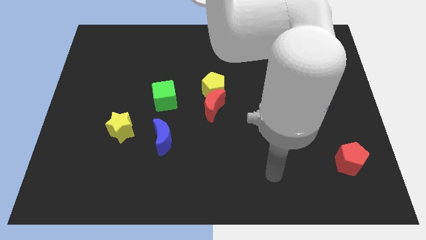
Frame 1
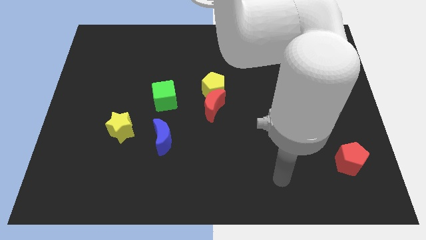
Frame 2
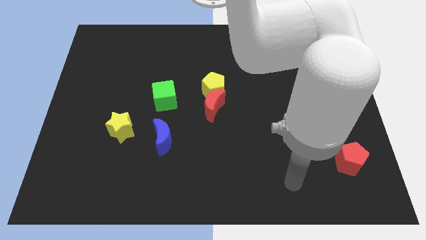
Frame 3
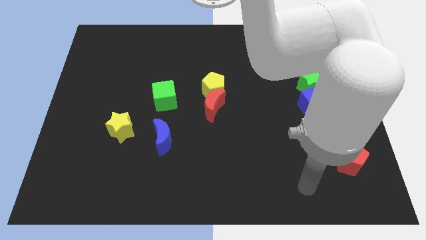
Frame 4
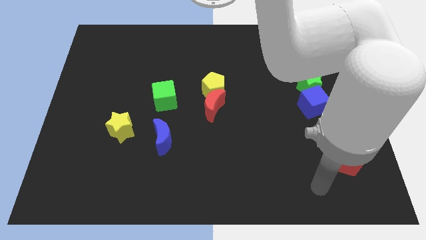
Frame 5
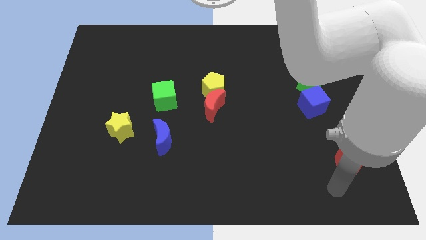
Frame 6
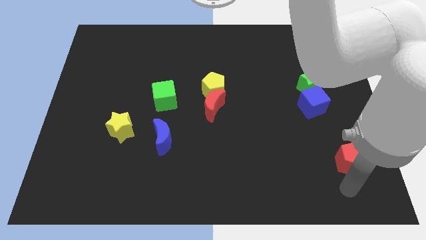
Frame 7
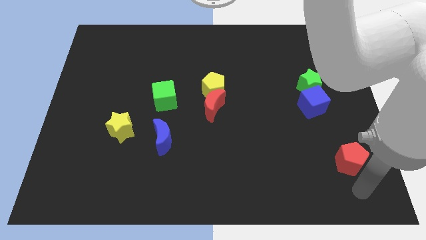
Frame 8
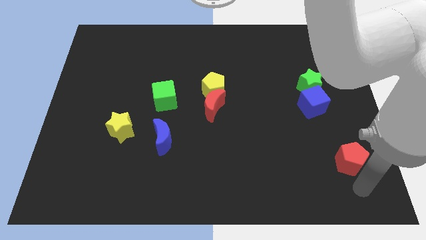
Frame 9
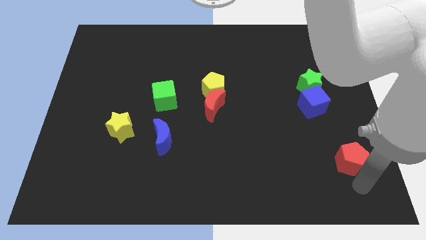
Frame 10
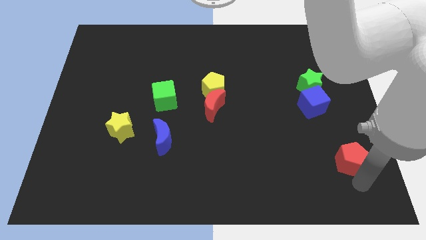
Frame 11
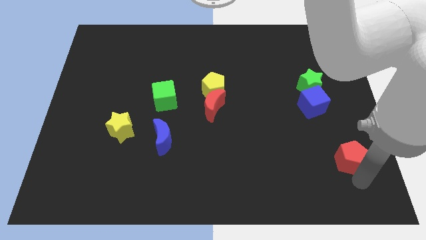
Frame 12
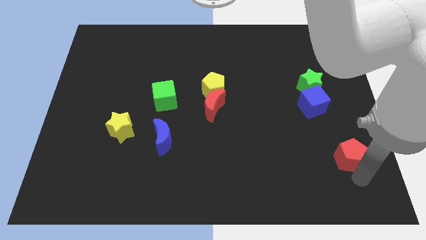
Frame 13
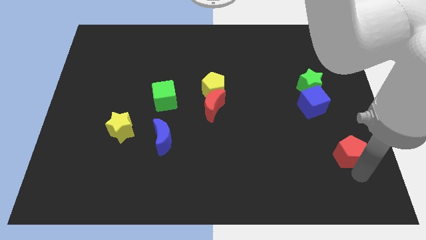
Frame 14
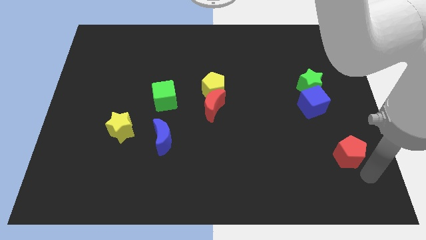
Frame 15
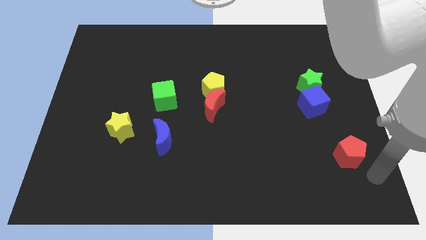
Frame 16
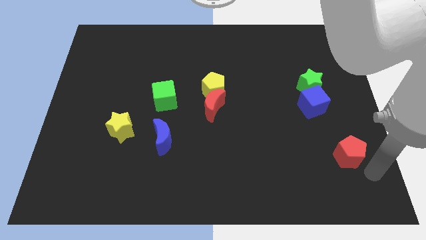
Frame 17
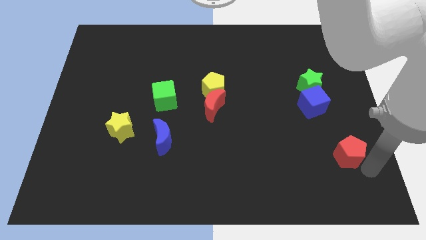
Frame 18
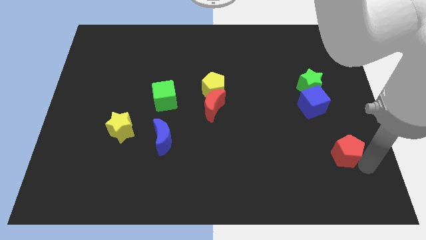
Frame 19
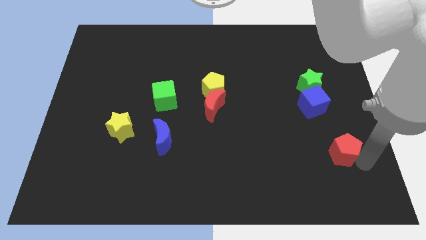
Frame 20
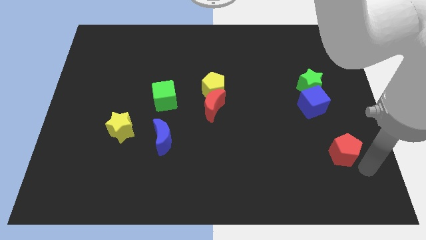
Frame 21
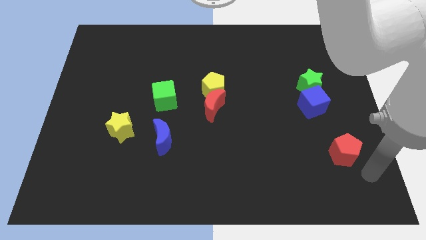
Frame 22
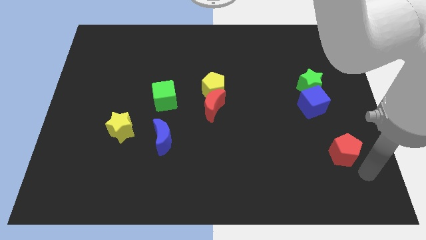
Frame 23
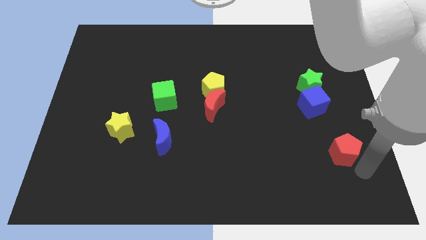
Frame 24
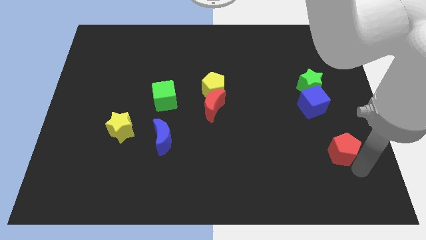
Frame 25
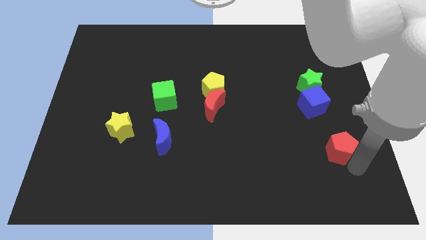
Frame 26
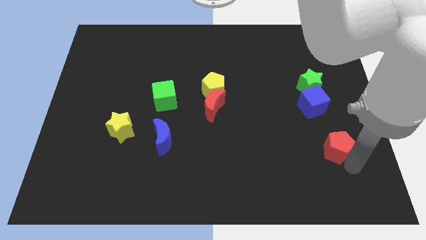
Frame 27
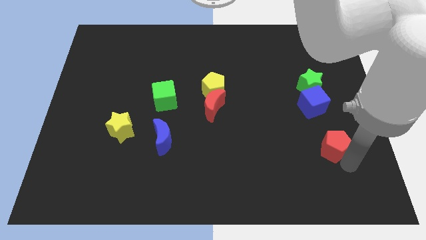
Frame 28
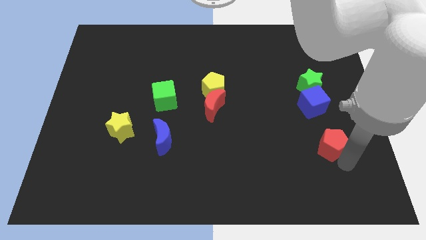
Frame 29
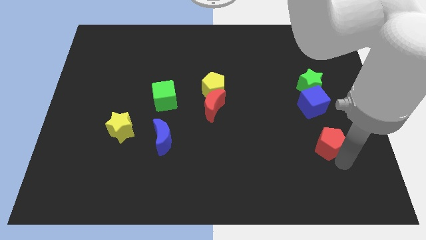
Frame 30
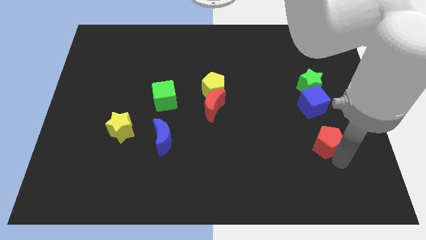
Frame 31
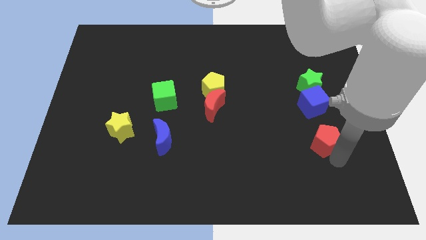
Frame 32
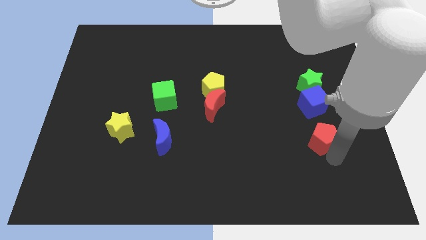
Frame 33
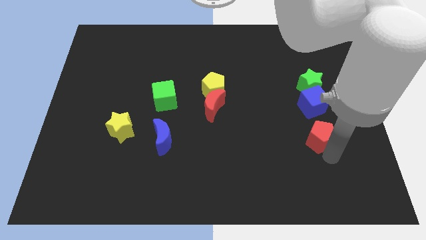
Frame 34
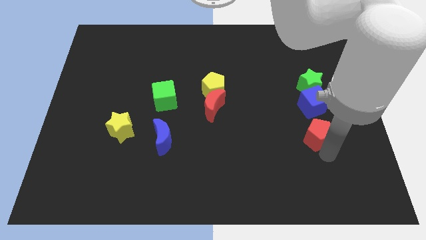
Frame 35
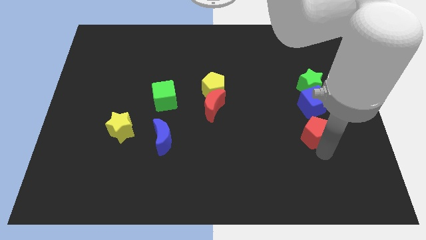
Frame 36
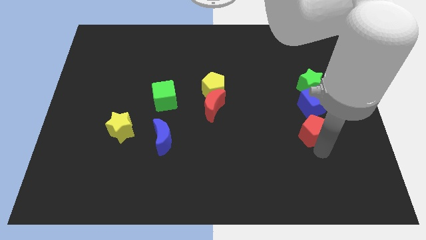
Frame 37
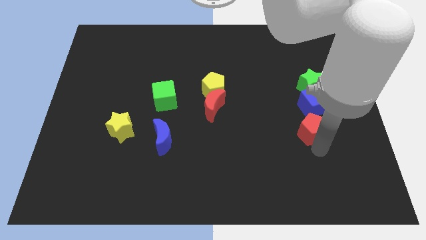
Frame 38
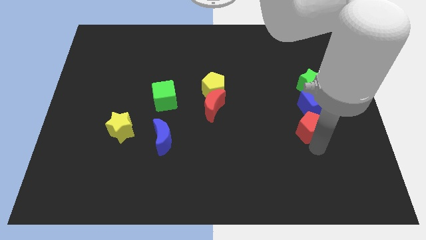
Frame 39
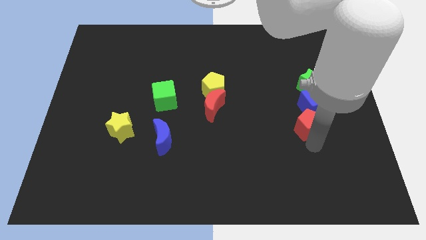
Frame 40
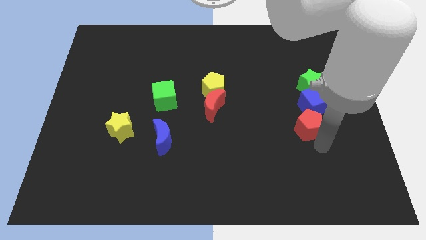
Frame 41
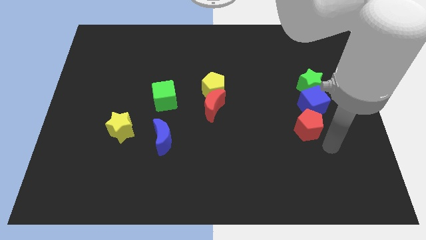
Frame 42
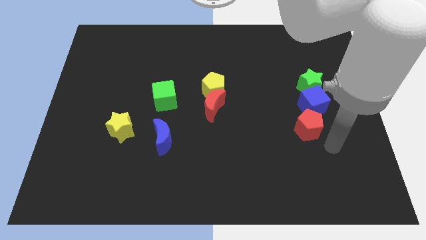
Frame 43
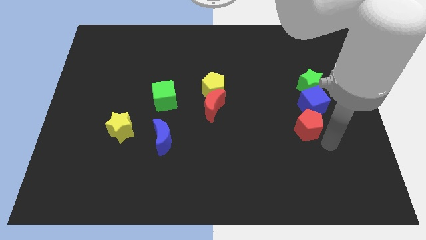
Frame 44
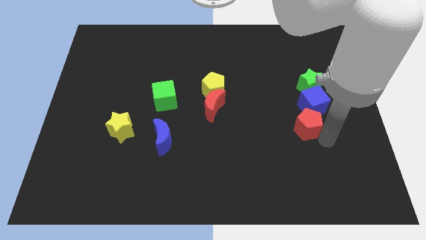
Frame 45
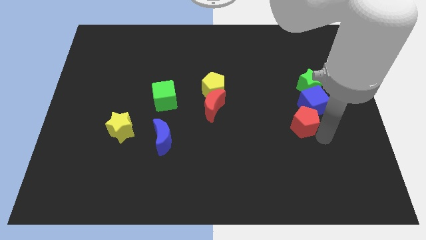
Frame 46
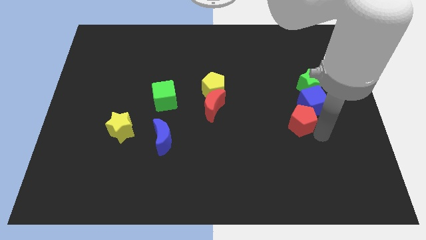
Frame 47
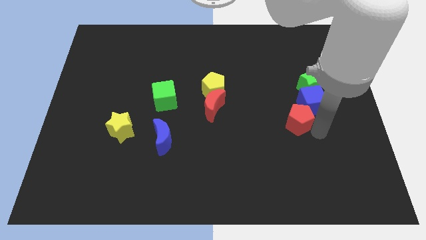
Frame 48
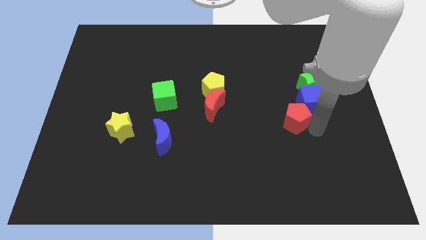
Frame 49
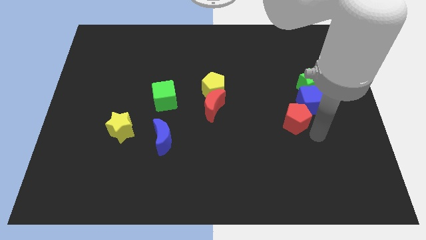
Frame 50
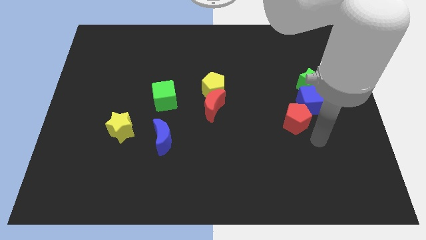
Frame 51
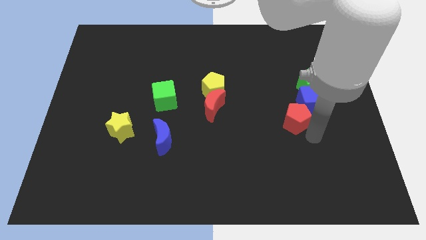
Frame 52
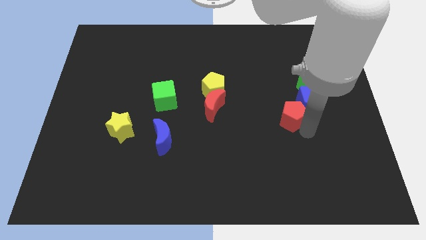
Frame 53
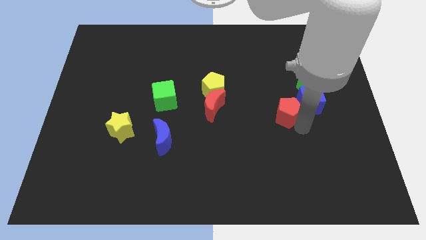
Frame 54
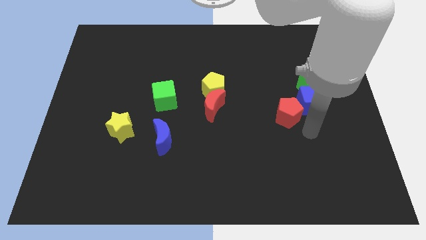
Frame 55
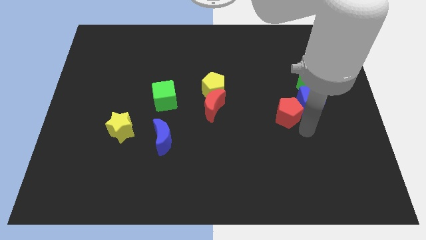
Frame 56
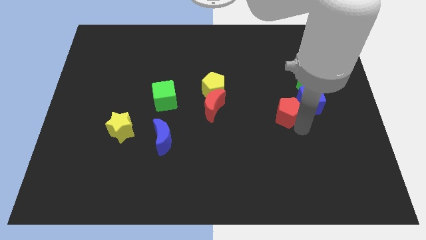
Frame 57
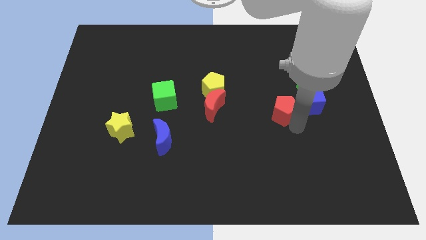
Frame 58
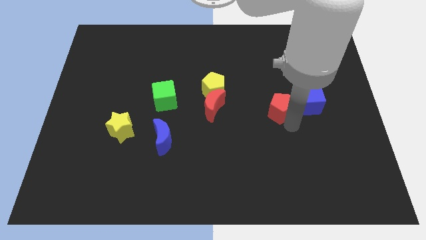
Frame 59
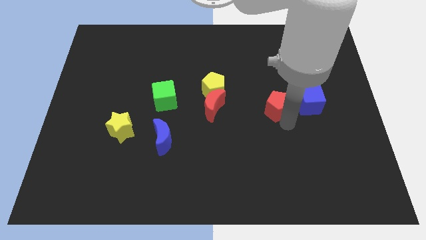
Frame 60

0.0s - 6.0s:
slide the red pentagon upwards and to the left diagonally

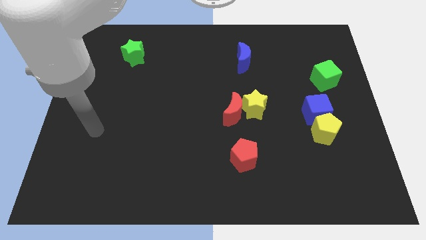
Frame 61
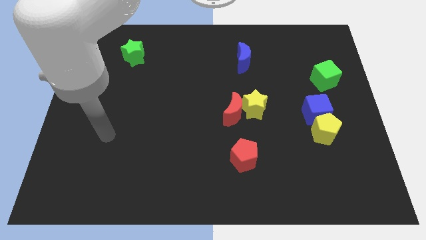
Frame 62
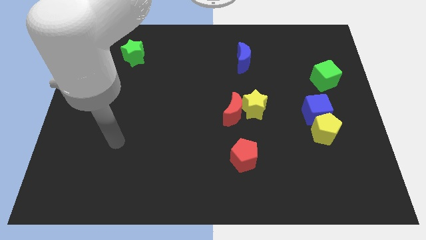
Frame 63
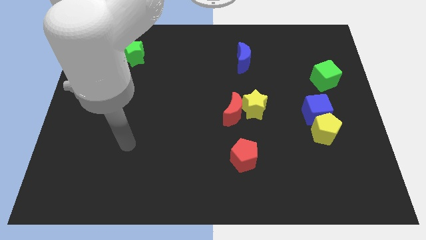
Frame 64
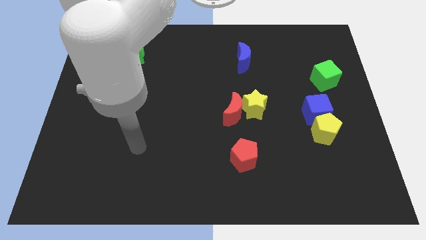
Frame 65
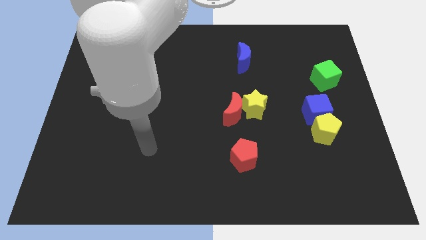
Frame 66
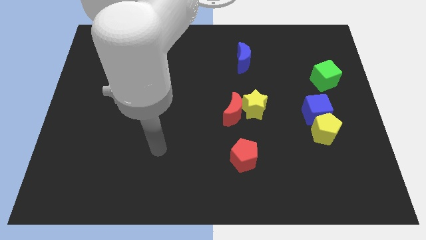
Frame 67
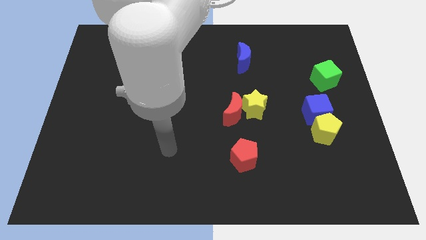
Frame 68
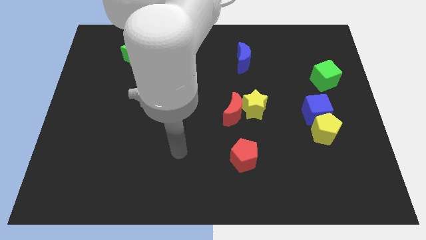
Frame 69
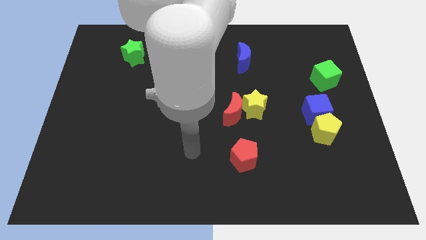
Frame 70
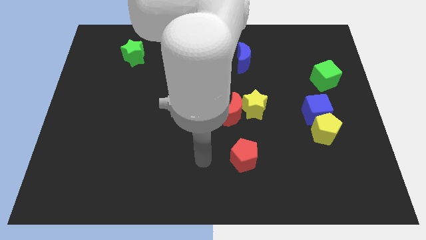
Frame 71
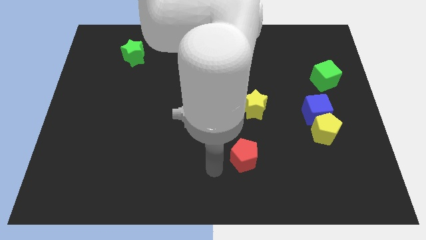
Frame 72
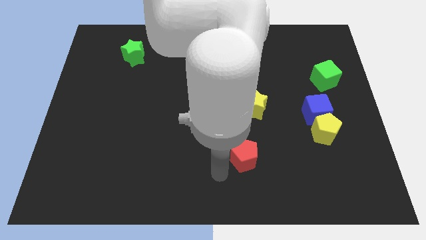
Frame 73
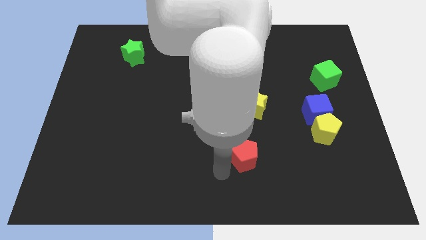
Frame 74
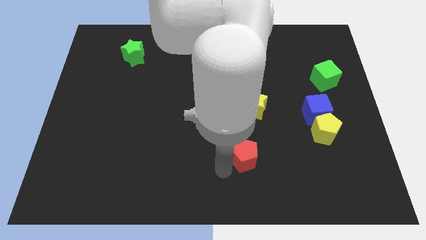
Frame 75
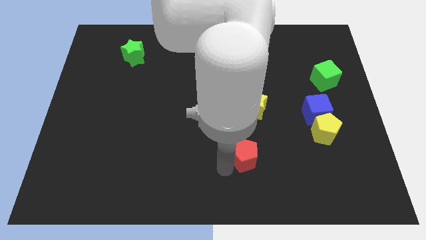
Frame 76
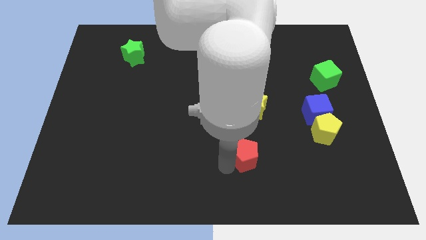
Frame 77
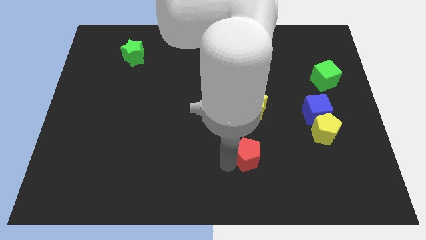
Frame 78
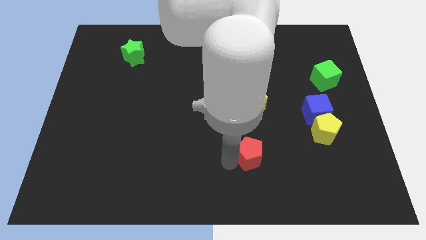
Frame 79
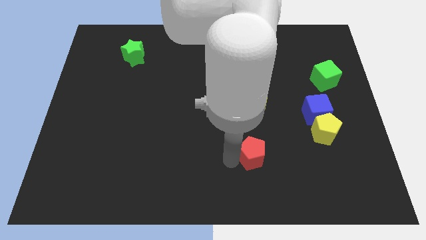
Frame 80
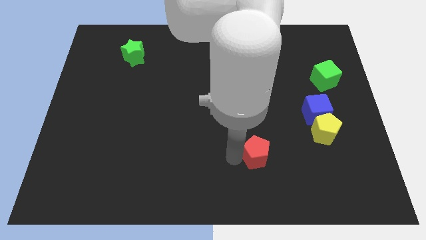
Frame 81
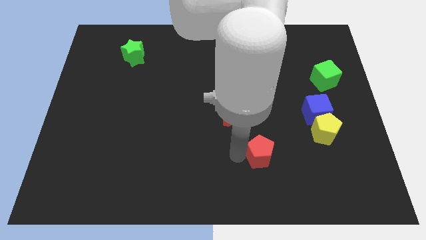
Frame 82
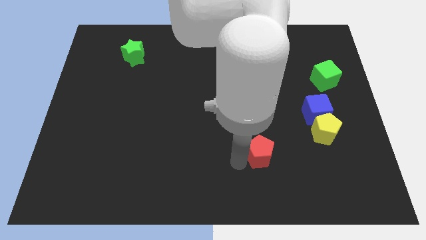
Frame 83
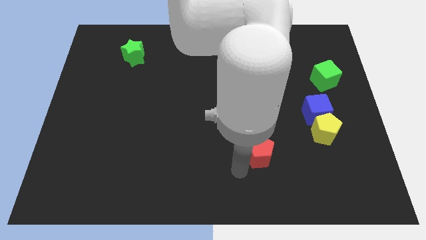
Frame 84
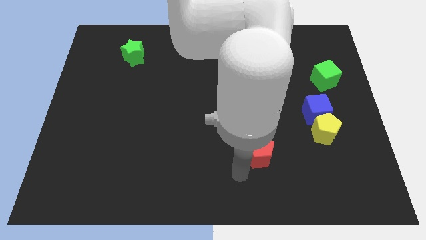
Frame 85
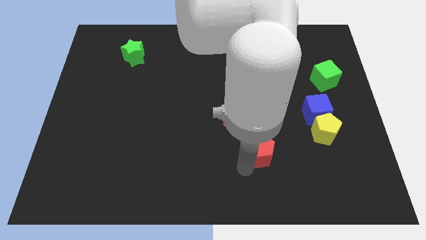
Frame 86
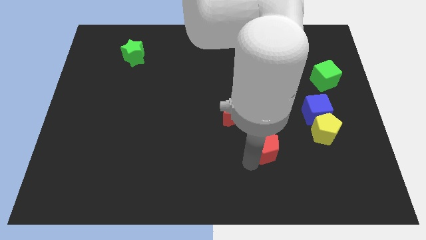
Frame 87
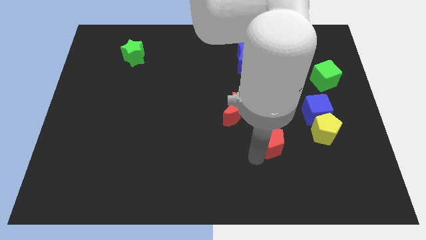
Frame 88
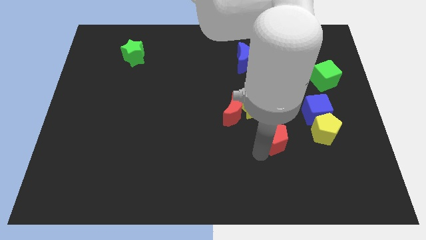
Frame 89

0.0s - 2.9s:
push the red pentagon a bit diagonally up and to the right
